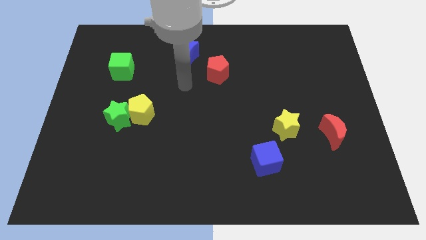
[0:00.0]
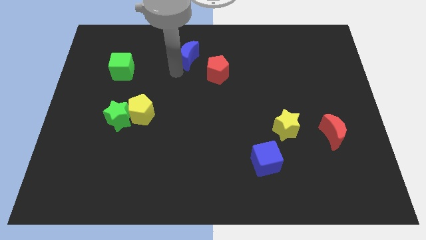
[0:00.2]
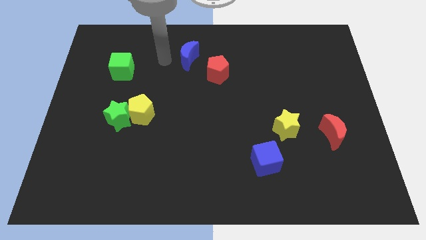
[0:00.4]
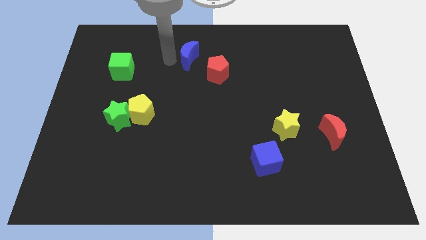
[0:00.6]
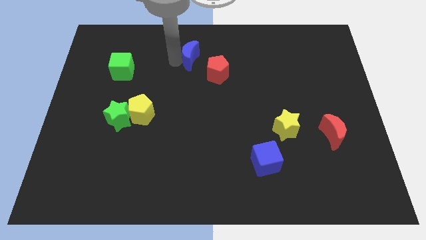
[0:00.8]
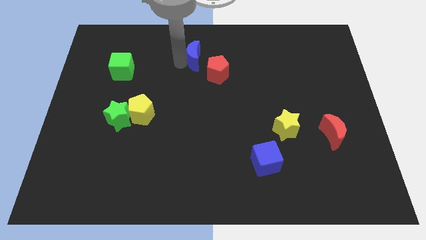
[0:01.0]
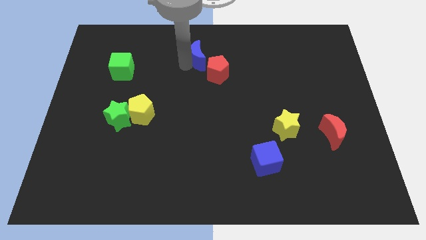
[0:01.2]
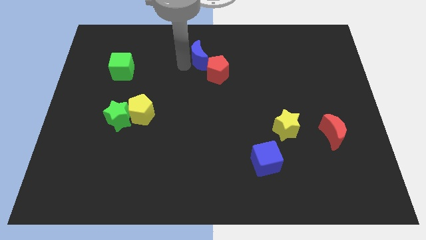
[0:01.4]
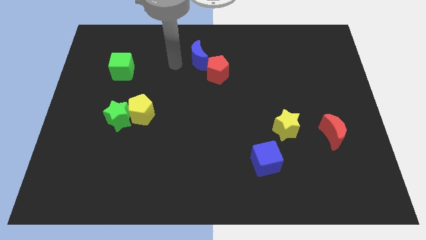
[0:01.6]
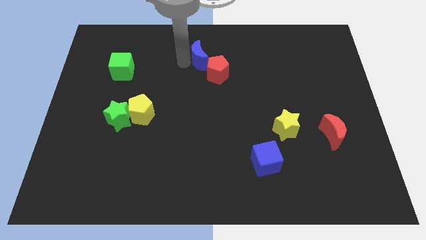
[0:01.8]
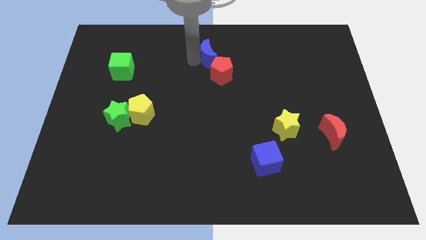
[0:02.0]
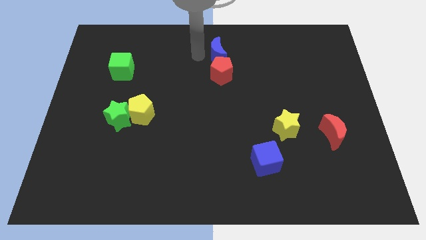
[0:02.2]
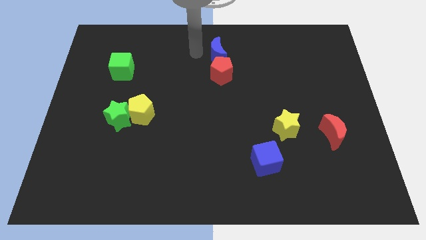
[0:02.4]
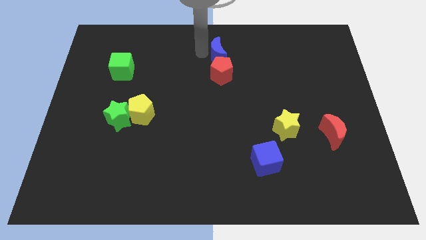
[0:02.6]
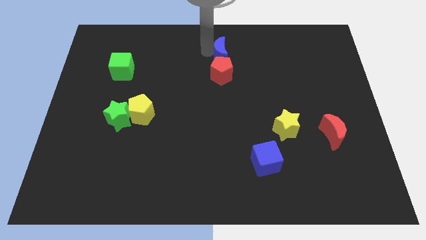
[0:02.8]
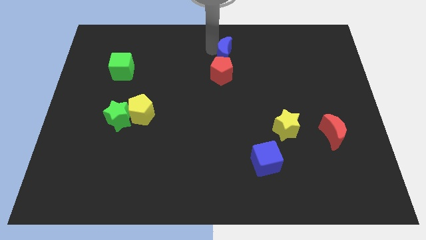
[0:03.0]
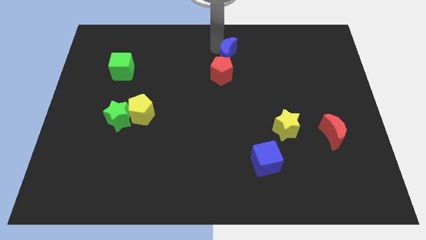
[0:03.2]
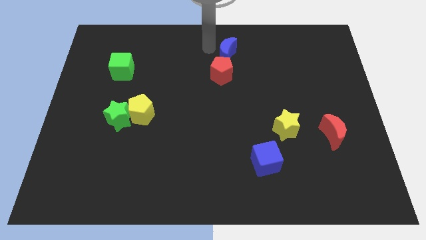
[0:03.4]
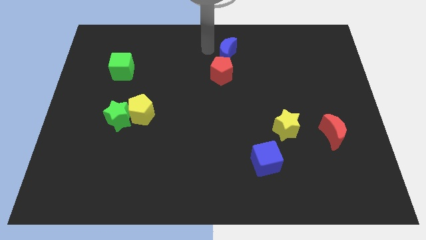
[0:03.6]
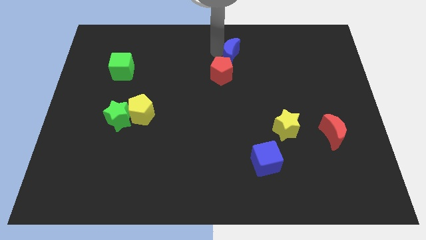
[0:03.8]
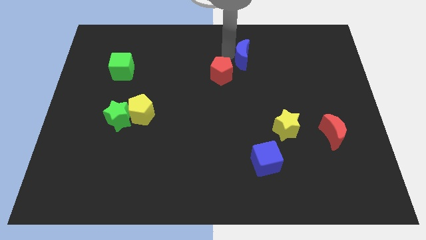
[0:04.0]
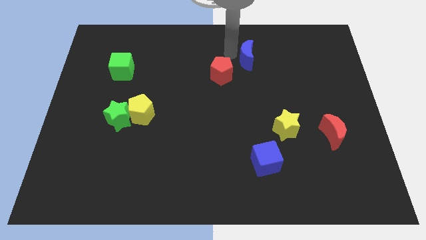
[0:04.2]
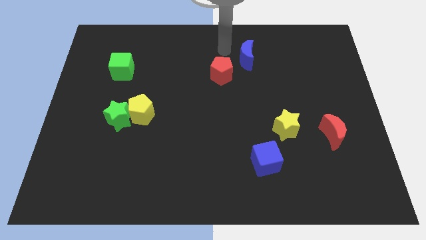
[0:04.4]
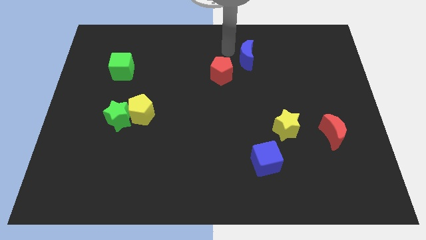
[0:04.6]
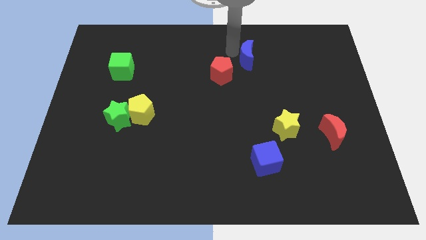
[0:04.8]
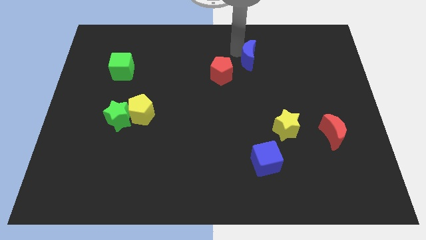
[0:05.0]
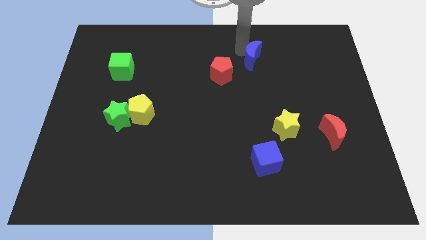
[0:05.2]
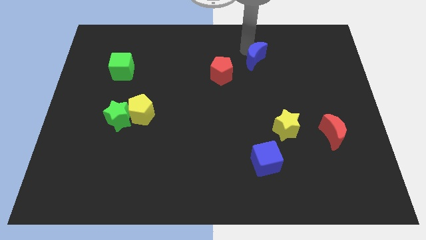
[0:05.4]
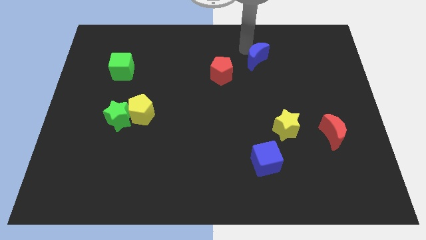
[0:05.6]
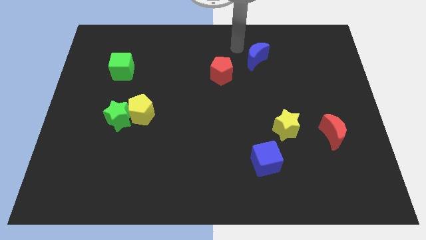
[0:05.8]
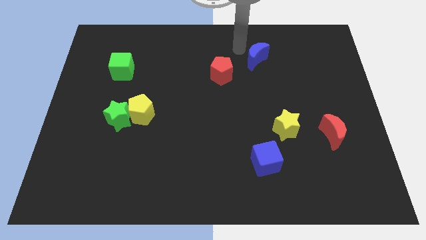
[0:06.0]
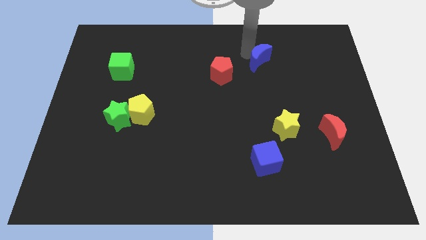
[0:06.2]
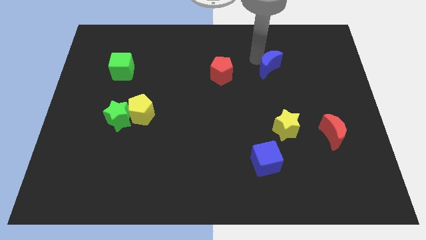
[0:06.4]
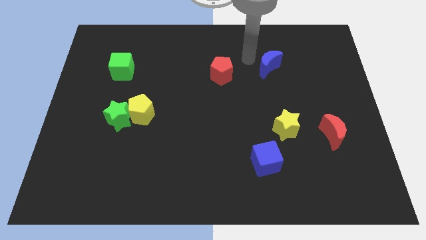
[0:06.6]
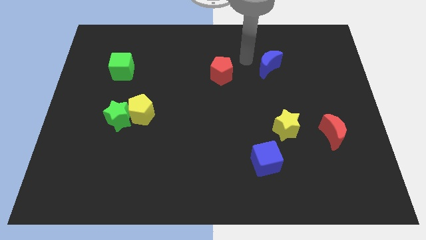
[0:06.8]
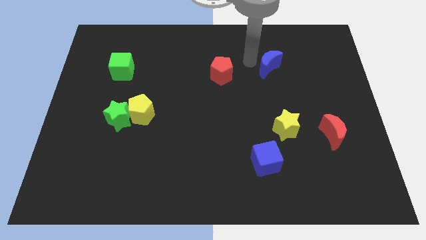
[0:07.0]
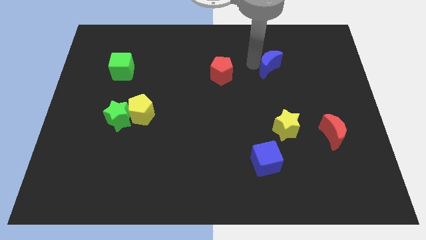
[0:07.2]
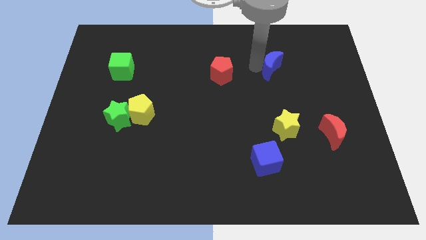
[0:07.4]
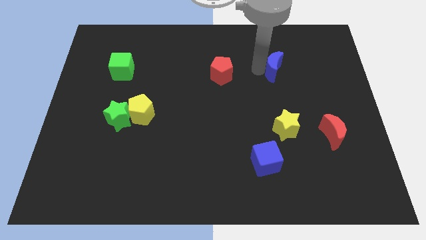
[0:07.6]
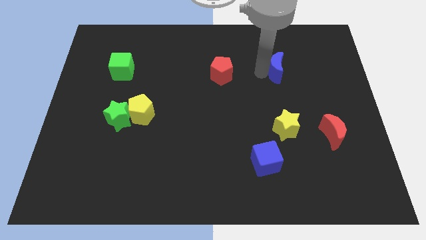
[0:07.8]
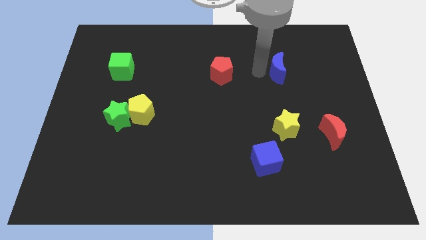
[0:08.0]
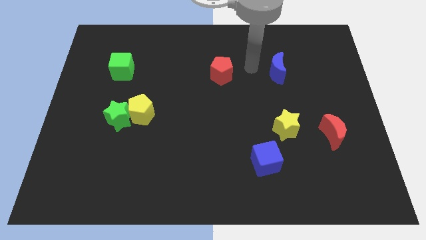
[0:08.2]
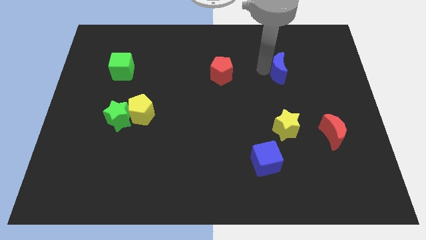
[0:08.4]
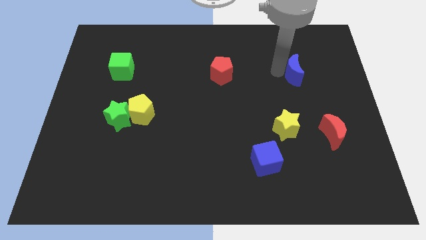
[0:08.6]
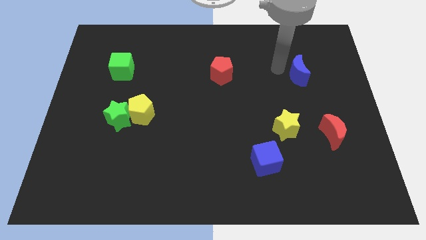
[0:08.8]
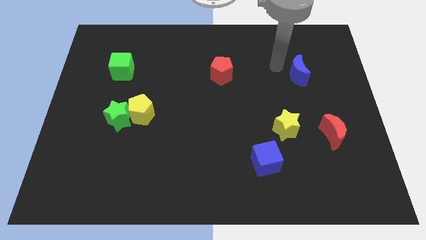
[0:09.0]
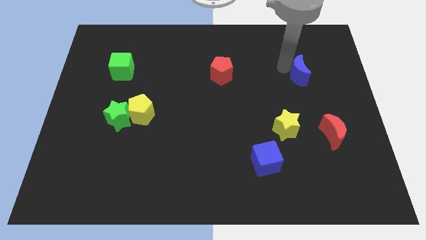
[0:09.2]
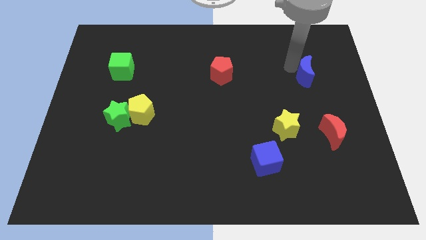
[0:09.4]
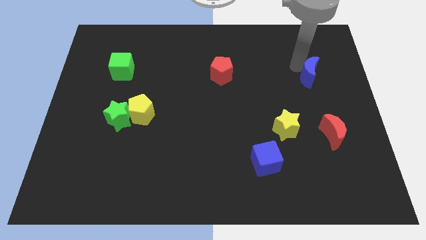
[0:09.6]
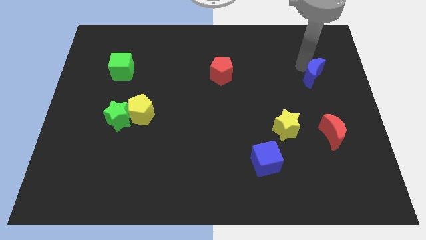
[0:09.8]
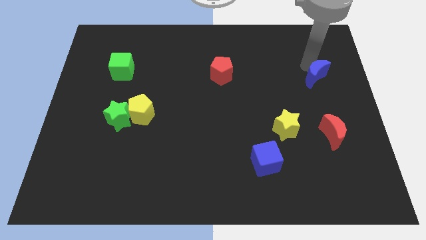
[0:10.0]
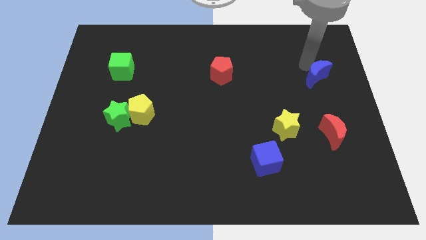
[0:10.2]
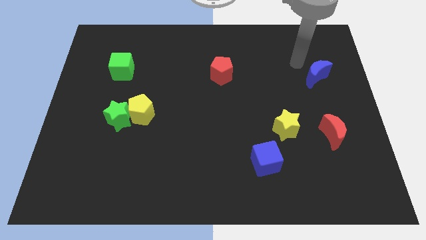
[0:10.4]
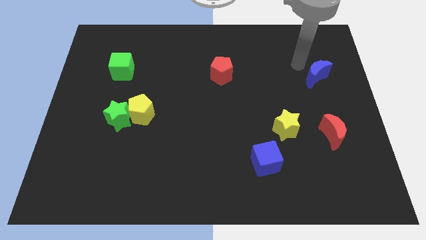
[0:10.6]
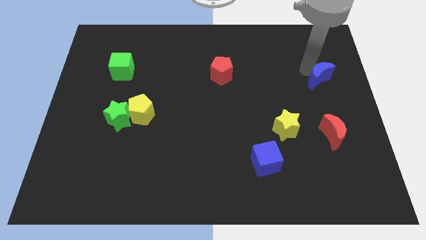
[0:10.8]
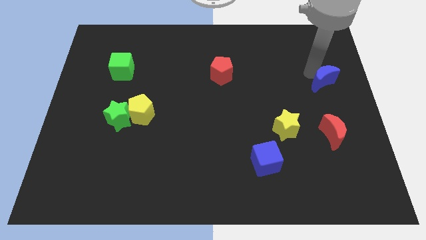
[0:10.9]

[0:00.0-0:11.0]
push the blue moon to the right side of the board

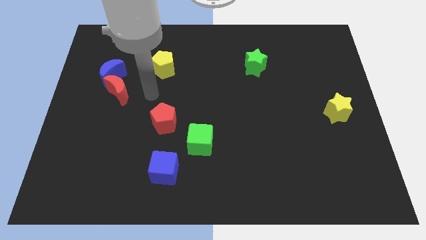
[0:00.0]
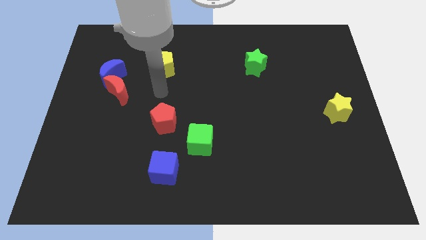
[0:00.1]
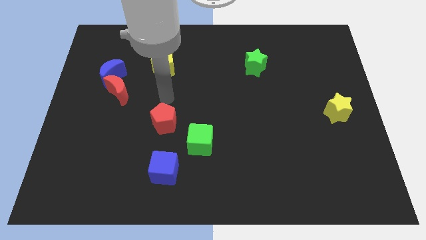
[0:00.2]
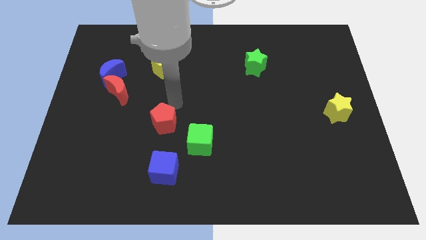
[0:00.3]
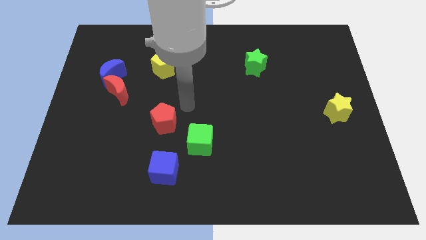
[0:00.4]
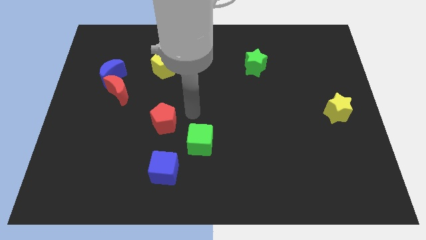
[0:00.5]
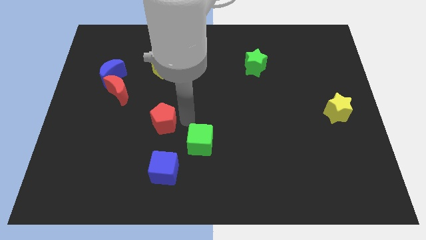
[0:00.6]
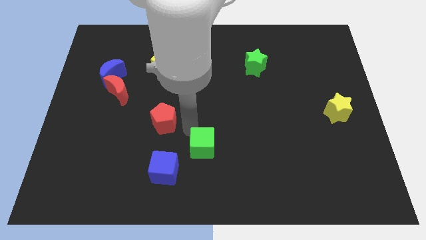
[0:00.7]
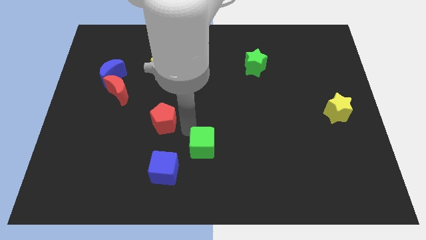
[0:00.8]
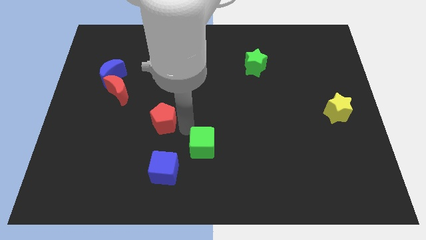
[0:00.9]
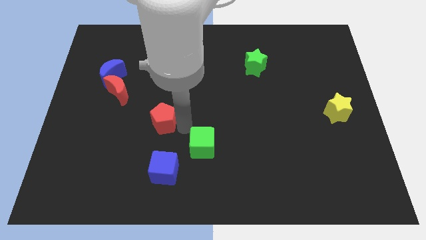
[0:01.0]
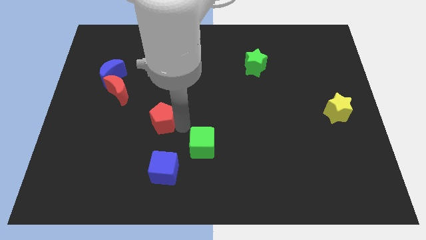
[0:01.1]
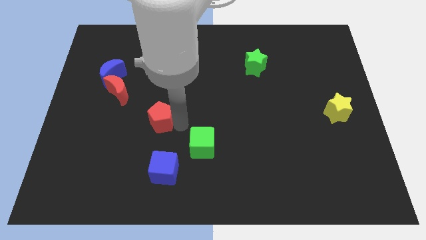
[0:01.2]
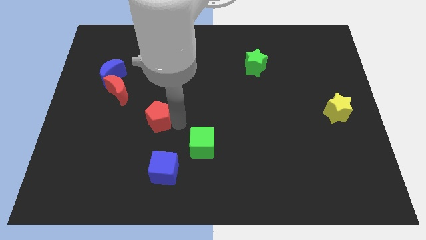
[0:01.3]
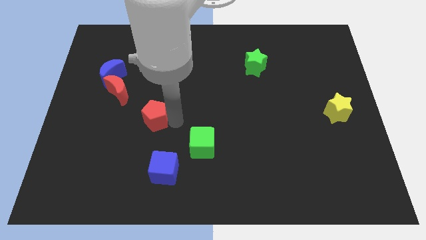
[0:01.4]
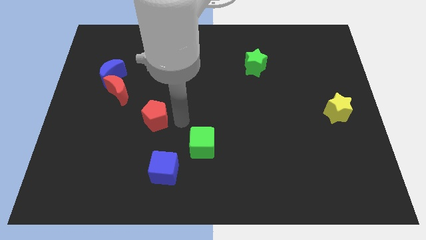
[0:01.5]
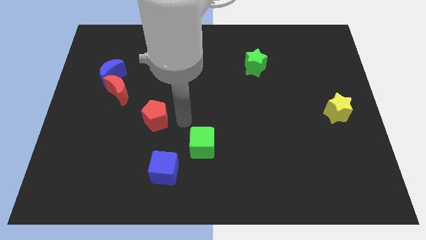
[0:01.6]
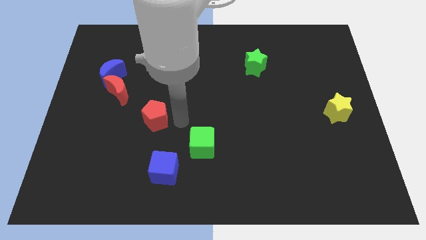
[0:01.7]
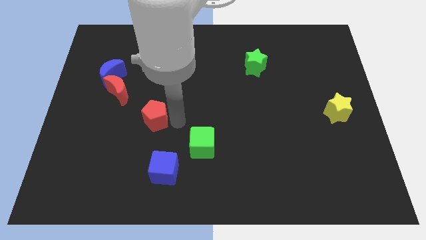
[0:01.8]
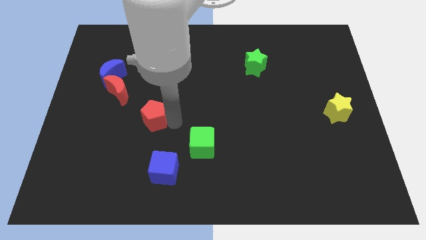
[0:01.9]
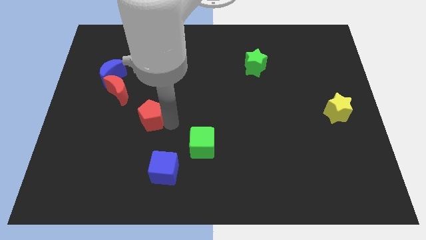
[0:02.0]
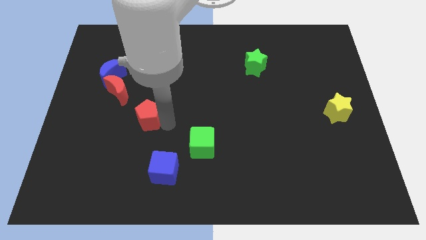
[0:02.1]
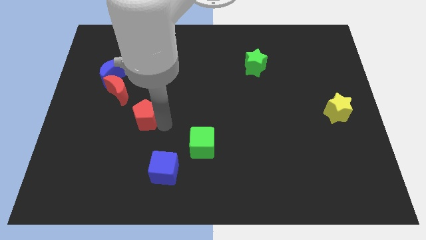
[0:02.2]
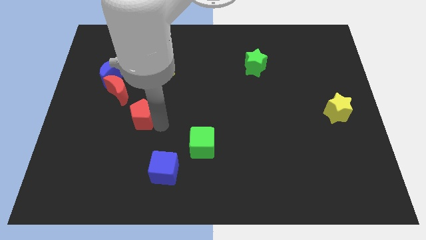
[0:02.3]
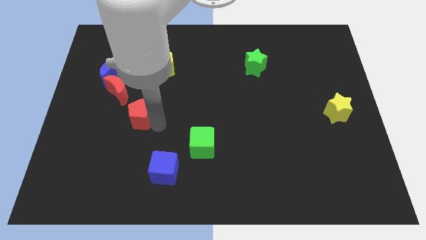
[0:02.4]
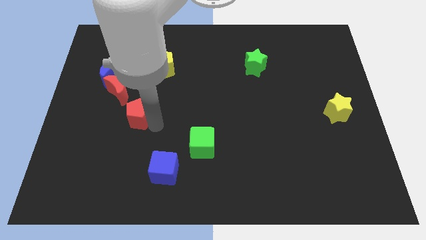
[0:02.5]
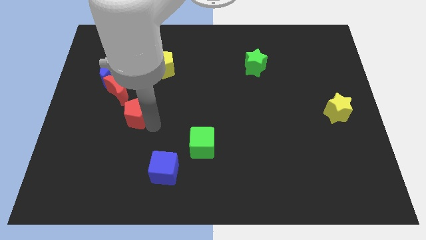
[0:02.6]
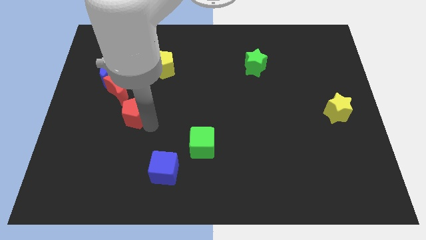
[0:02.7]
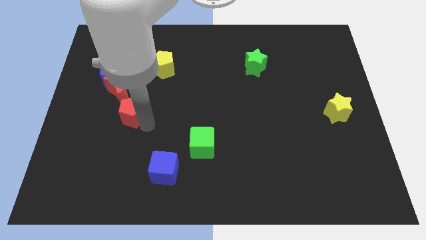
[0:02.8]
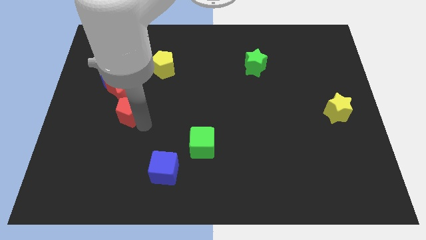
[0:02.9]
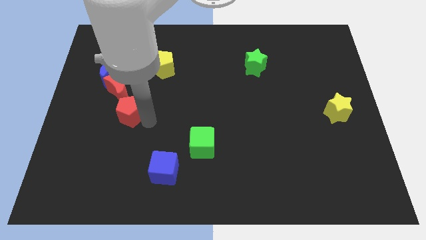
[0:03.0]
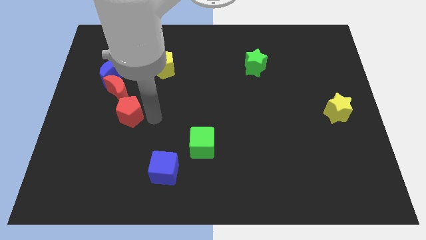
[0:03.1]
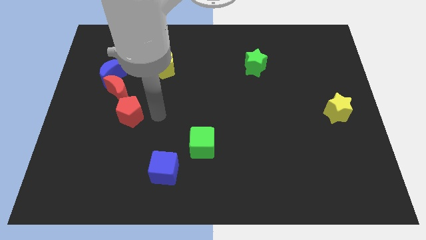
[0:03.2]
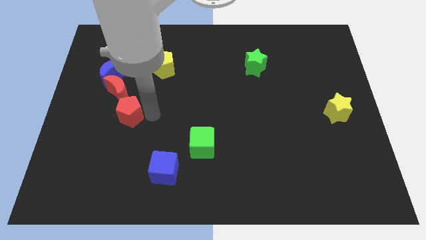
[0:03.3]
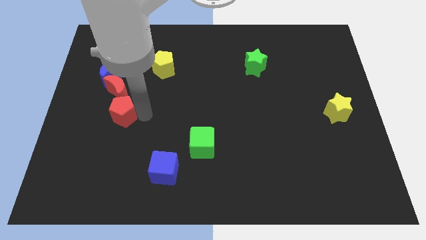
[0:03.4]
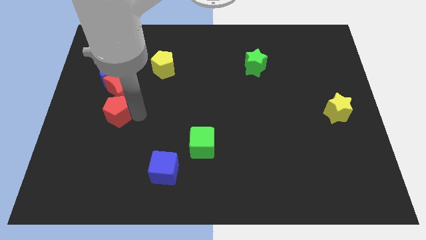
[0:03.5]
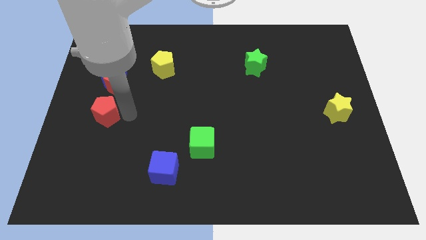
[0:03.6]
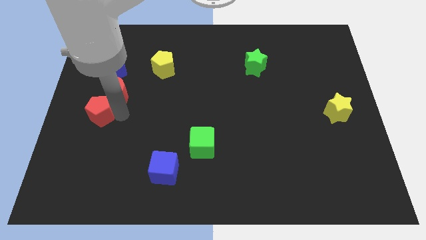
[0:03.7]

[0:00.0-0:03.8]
put the red pentagon to the center left
